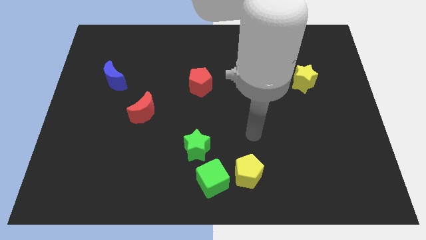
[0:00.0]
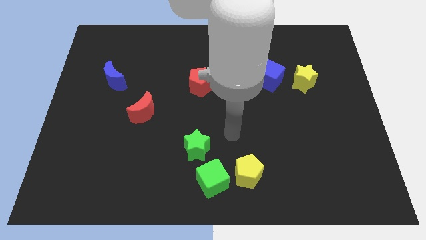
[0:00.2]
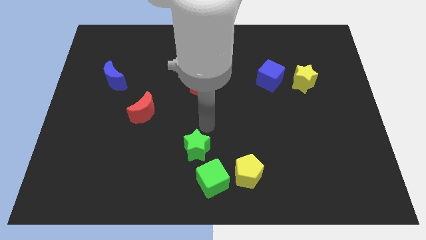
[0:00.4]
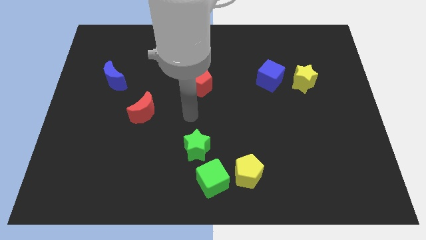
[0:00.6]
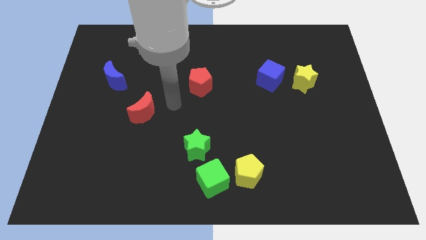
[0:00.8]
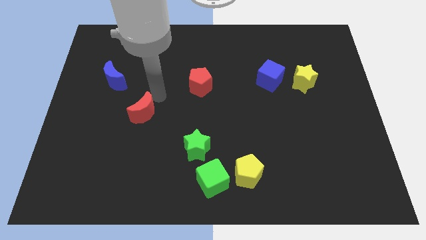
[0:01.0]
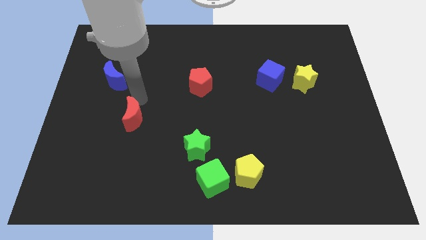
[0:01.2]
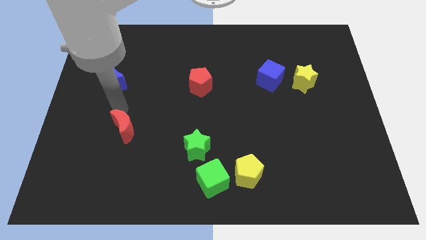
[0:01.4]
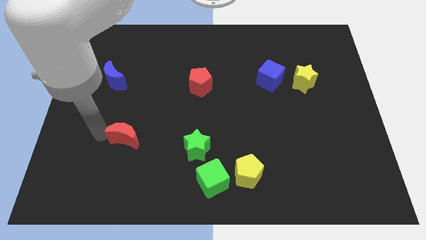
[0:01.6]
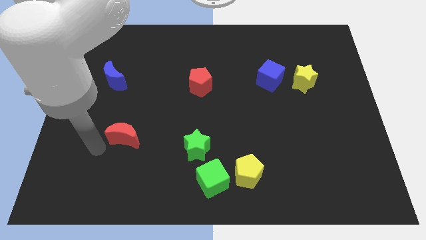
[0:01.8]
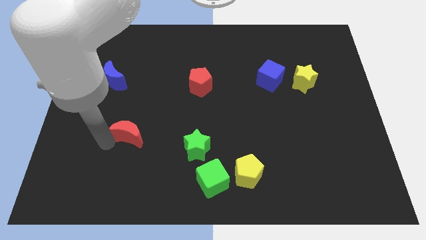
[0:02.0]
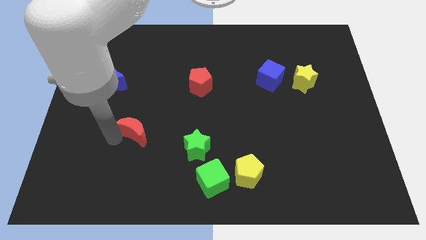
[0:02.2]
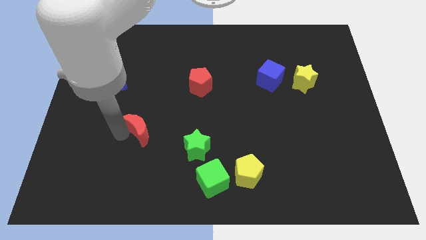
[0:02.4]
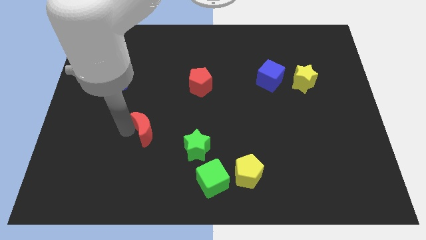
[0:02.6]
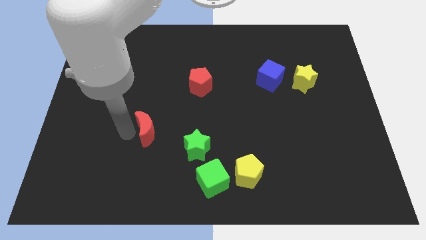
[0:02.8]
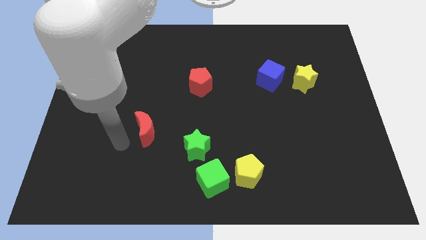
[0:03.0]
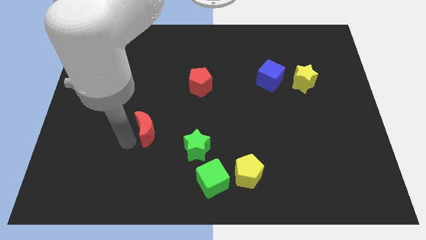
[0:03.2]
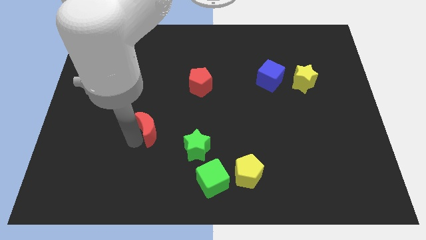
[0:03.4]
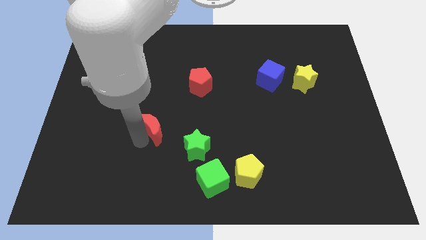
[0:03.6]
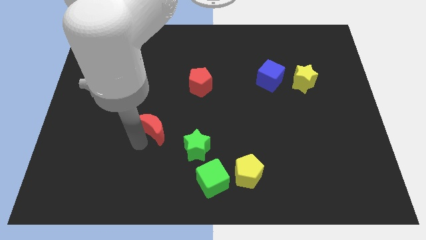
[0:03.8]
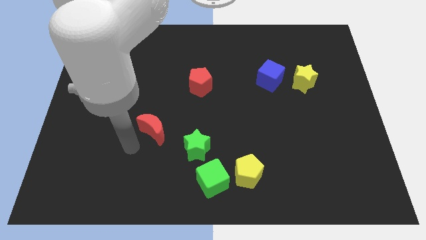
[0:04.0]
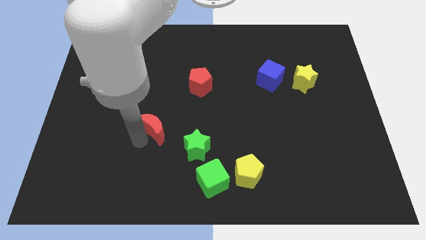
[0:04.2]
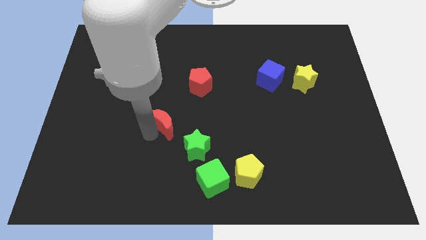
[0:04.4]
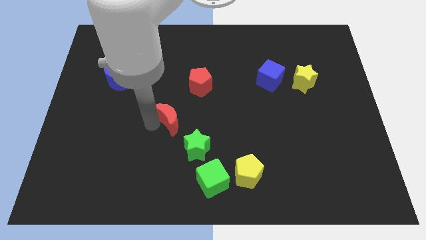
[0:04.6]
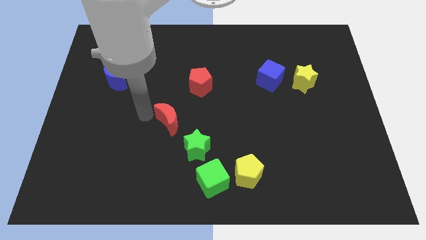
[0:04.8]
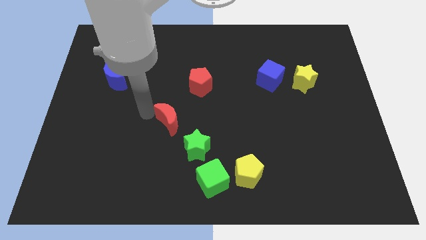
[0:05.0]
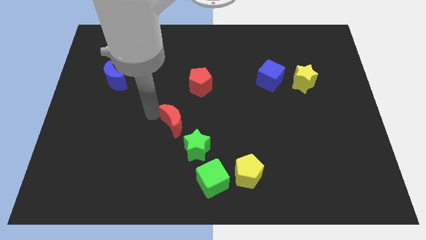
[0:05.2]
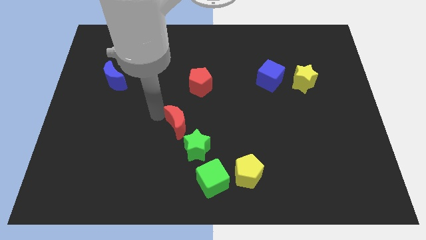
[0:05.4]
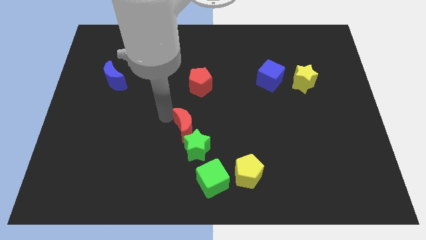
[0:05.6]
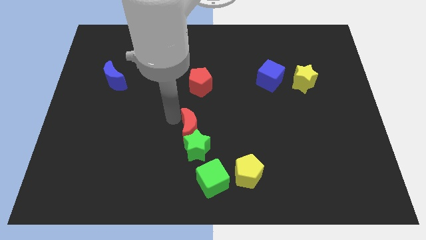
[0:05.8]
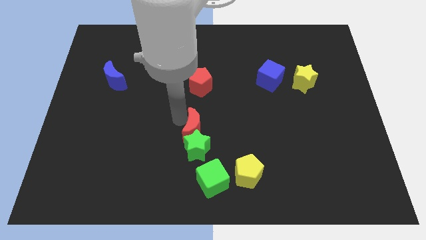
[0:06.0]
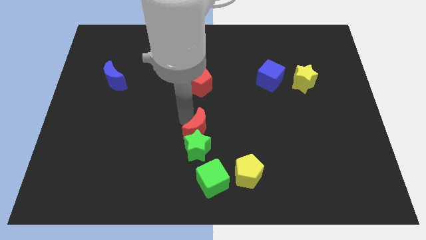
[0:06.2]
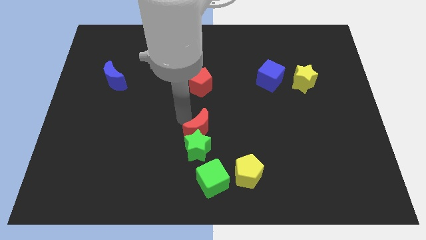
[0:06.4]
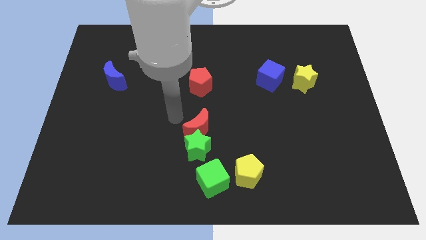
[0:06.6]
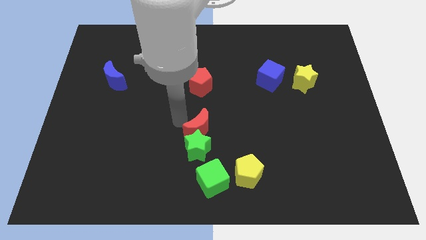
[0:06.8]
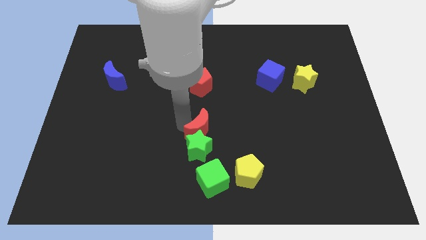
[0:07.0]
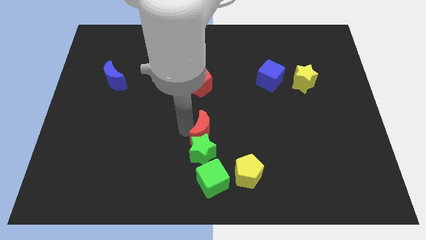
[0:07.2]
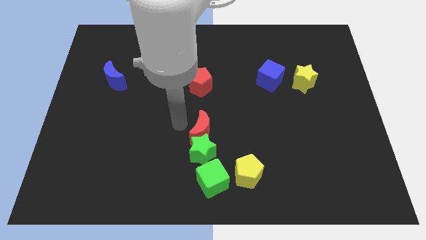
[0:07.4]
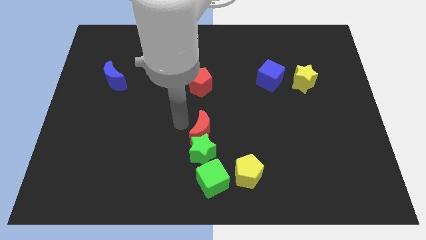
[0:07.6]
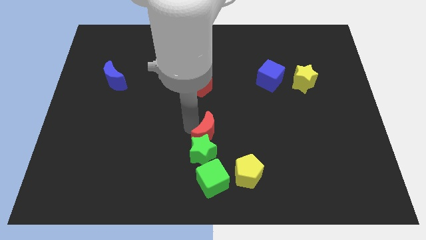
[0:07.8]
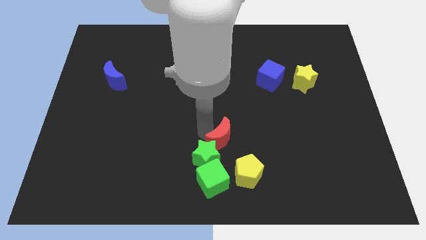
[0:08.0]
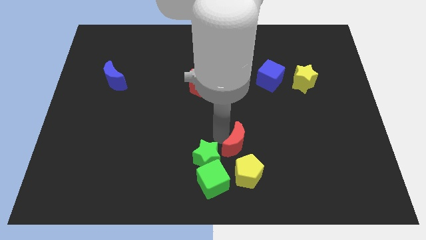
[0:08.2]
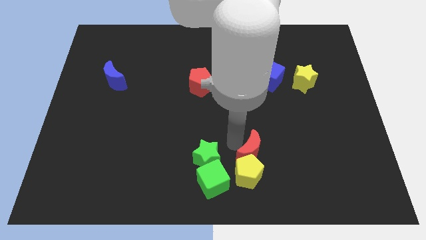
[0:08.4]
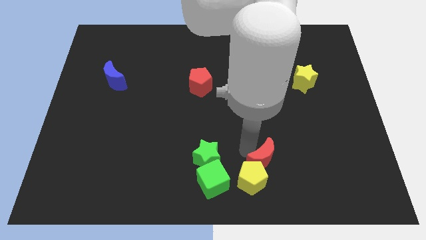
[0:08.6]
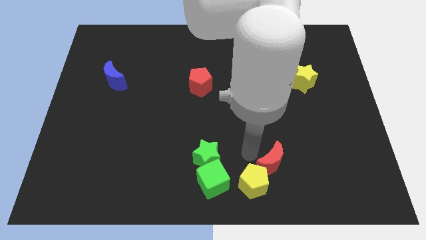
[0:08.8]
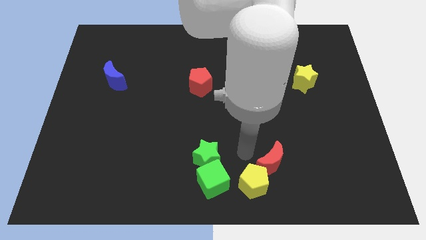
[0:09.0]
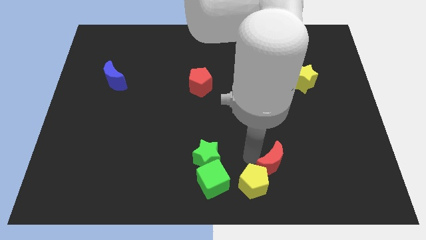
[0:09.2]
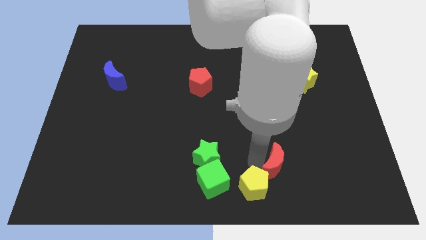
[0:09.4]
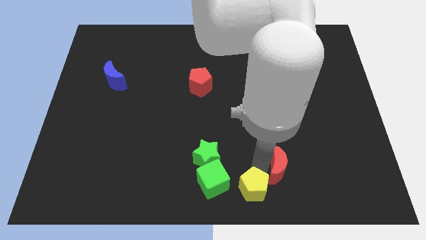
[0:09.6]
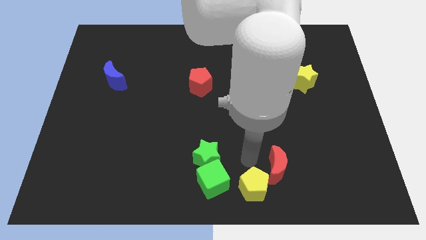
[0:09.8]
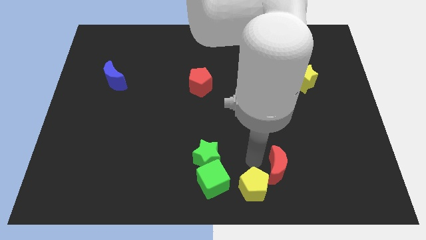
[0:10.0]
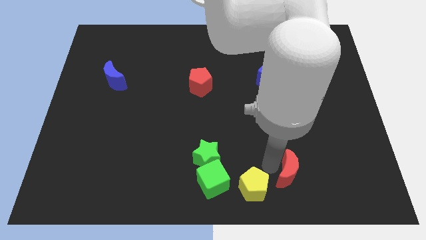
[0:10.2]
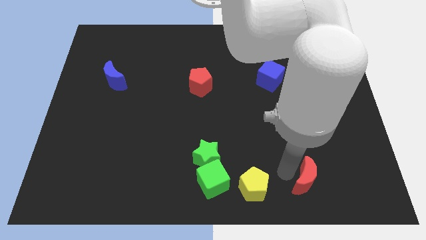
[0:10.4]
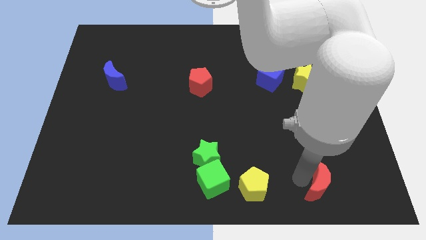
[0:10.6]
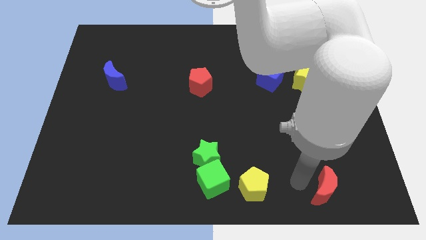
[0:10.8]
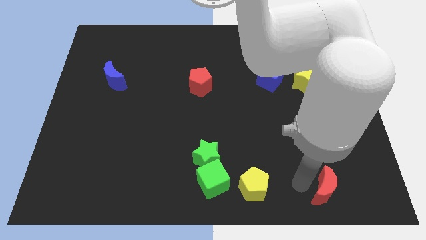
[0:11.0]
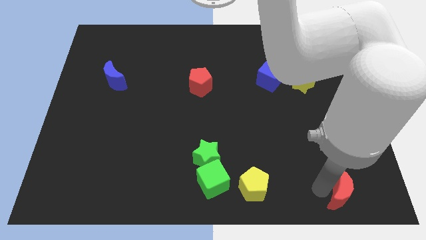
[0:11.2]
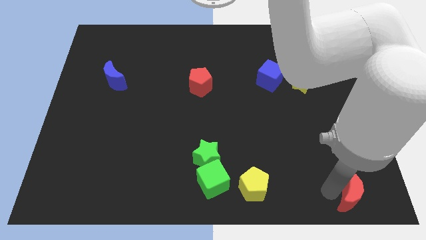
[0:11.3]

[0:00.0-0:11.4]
slide the red moon to the bottom right of the board

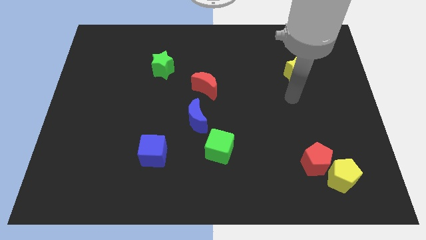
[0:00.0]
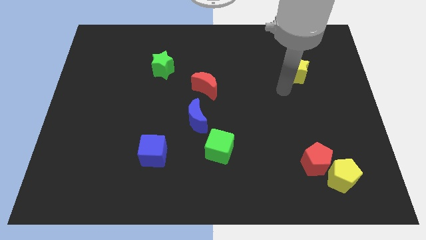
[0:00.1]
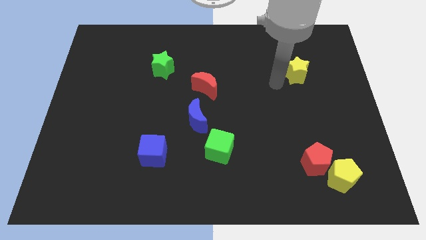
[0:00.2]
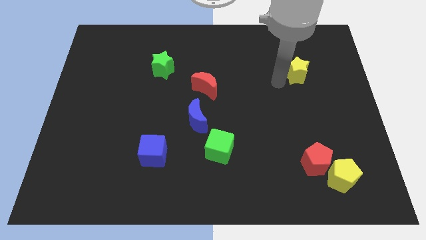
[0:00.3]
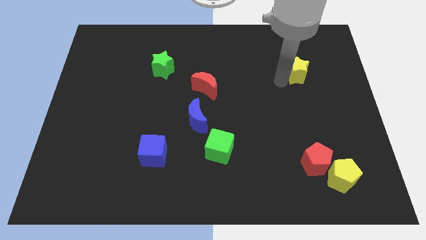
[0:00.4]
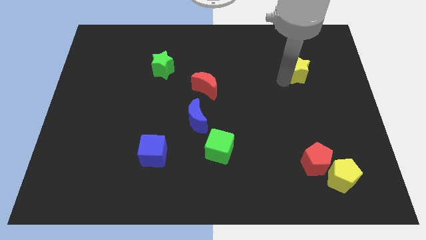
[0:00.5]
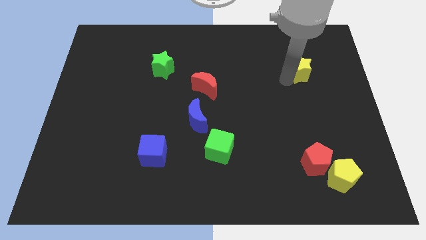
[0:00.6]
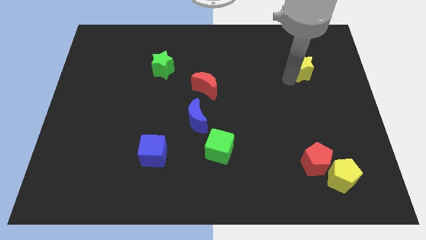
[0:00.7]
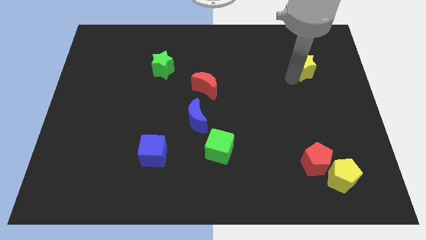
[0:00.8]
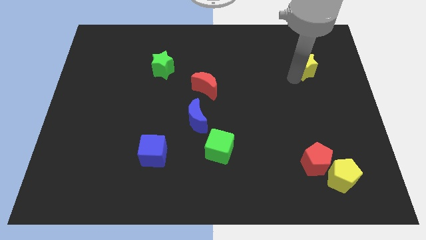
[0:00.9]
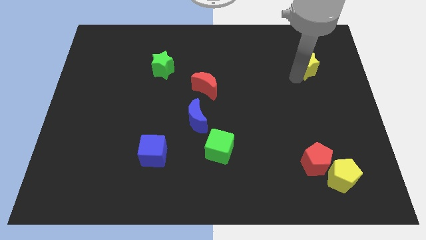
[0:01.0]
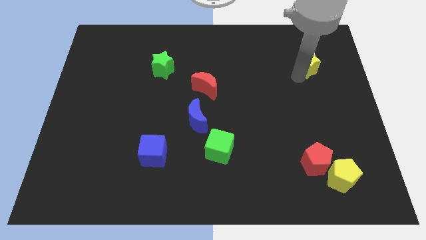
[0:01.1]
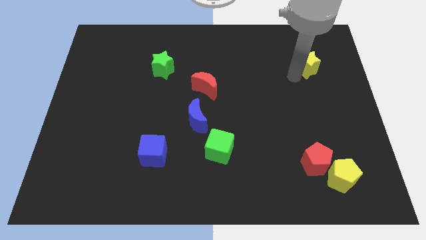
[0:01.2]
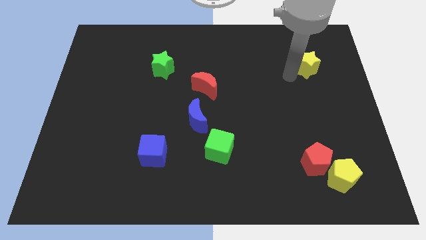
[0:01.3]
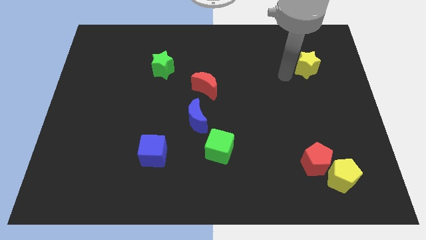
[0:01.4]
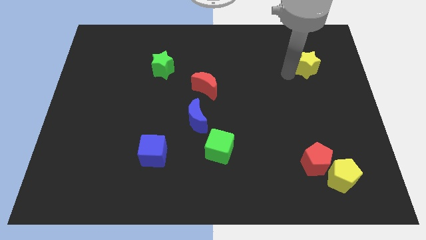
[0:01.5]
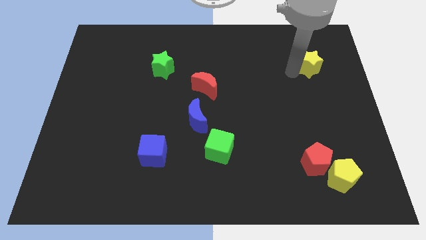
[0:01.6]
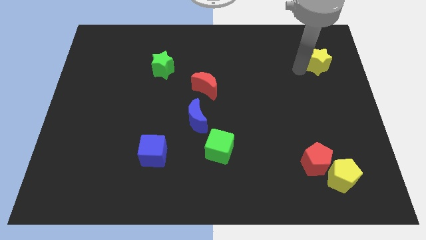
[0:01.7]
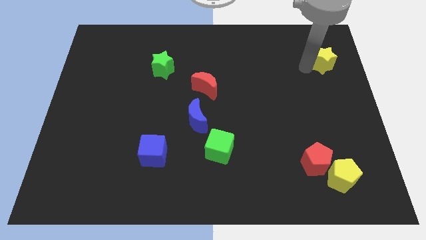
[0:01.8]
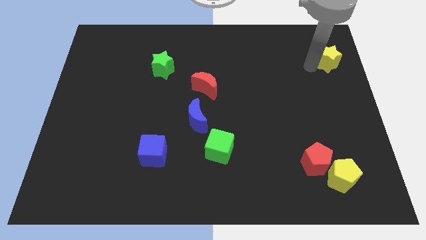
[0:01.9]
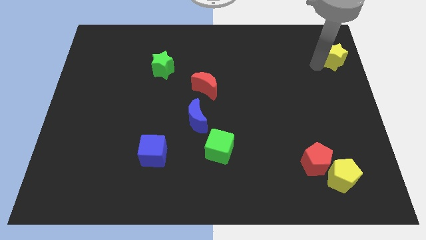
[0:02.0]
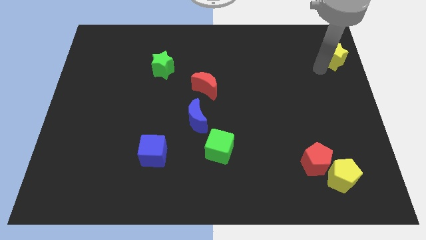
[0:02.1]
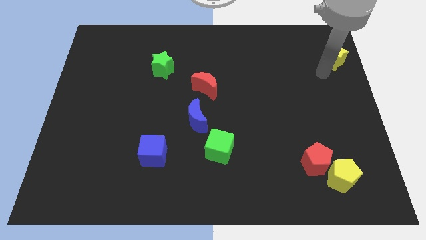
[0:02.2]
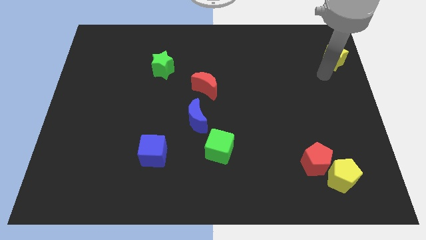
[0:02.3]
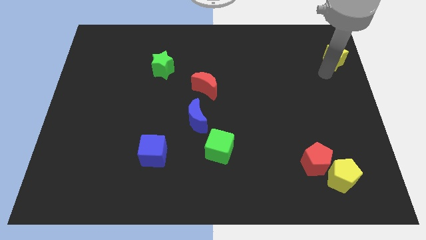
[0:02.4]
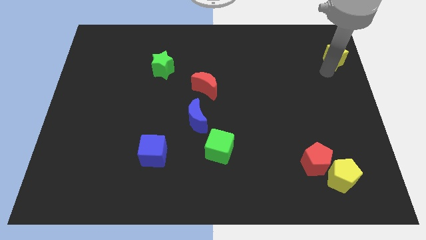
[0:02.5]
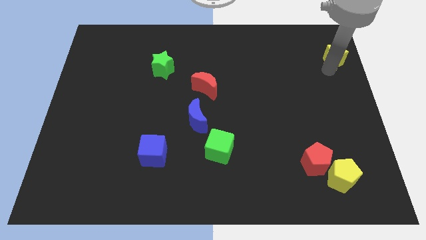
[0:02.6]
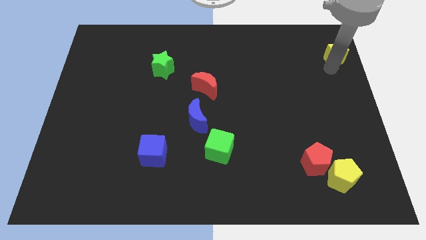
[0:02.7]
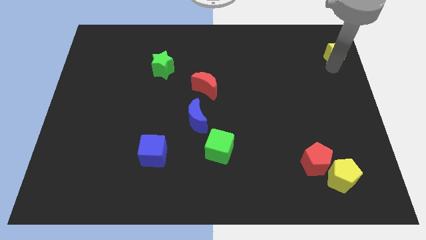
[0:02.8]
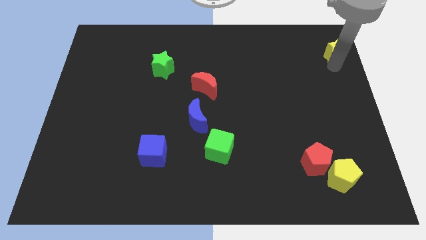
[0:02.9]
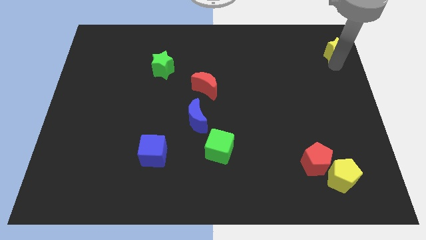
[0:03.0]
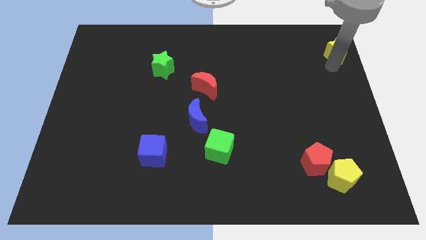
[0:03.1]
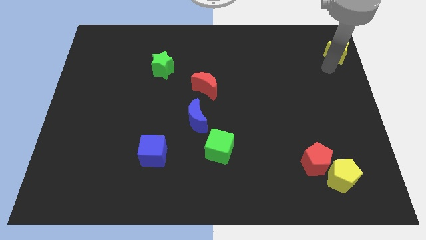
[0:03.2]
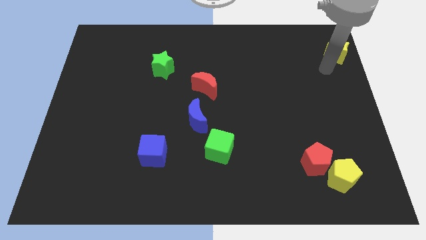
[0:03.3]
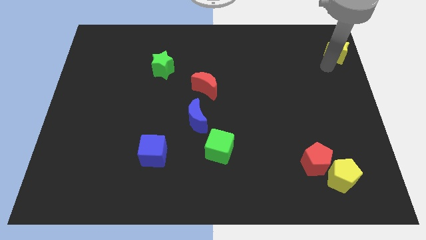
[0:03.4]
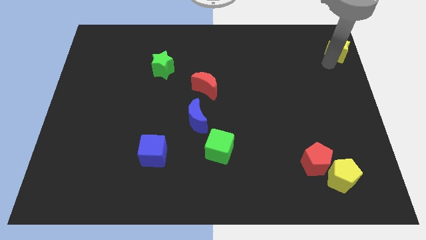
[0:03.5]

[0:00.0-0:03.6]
push the yellow star to the top right corner
